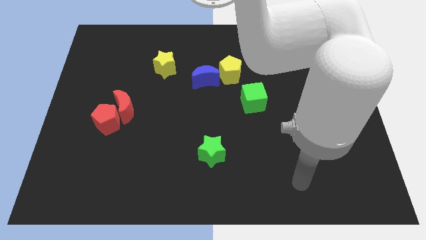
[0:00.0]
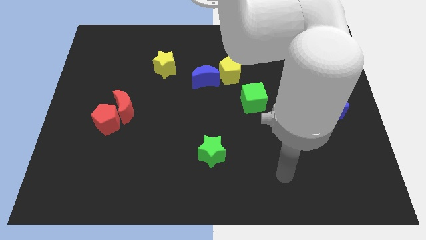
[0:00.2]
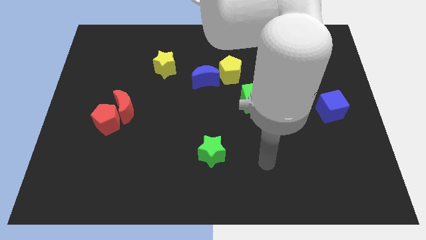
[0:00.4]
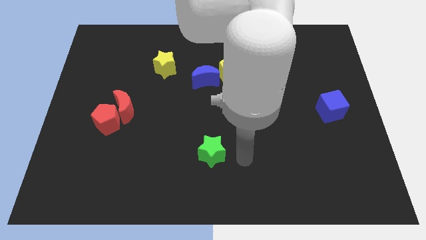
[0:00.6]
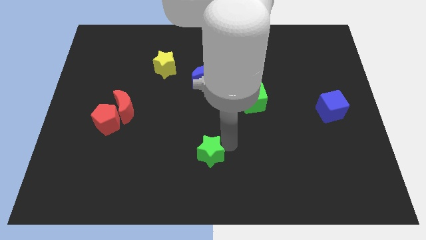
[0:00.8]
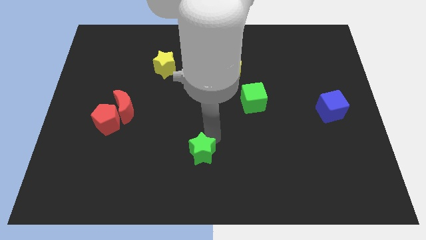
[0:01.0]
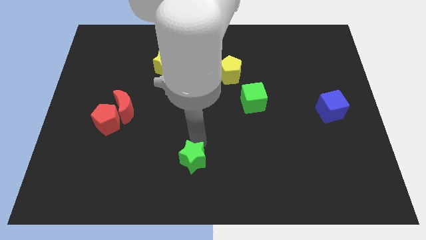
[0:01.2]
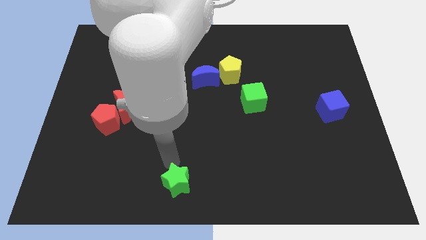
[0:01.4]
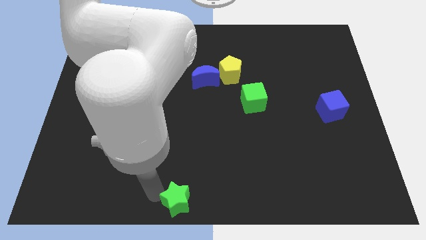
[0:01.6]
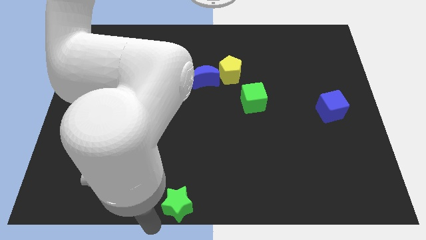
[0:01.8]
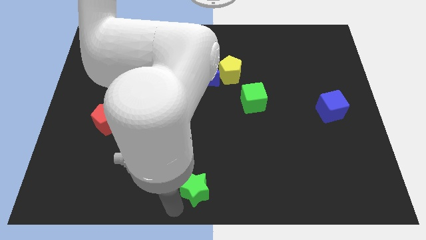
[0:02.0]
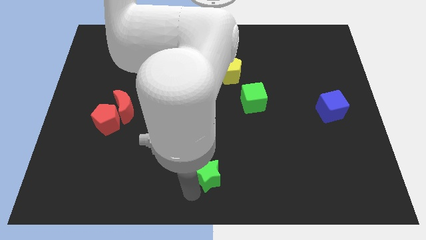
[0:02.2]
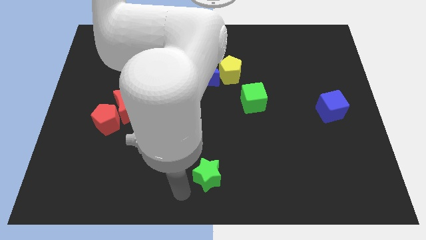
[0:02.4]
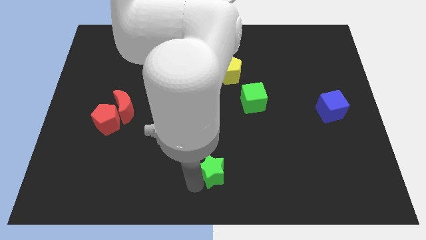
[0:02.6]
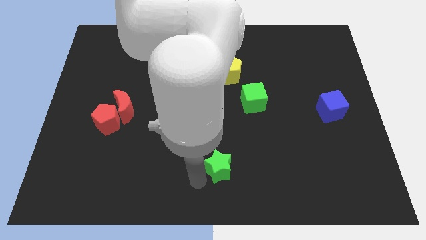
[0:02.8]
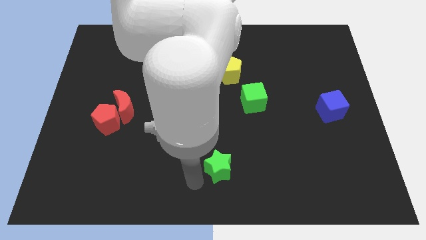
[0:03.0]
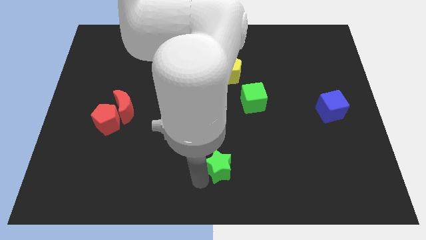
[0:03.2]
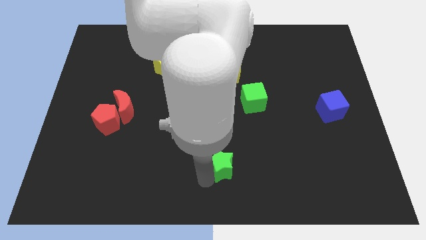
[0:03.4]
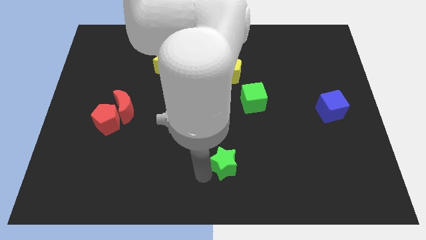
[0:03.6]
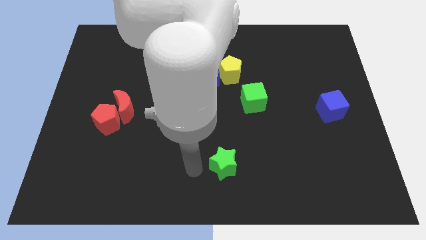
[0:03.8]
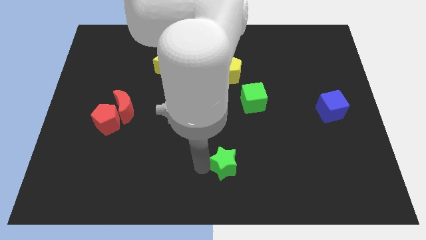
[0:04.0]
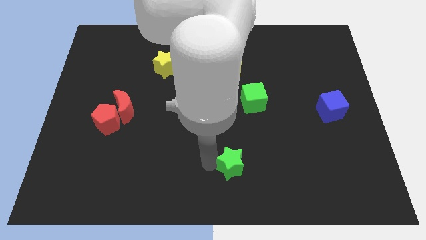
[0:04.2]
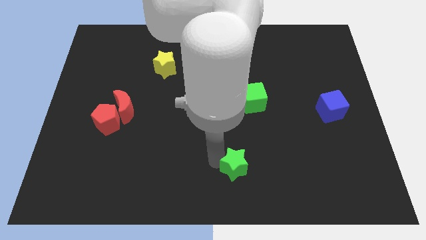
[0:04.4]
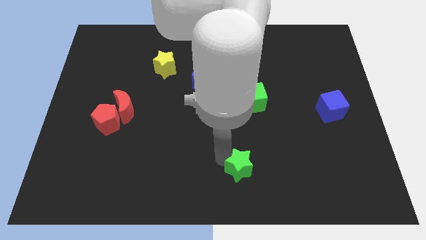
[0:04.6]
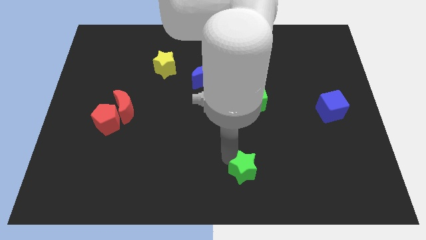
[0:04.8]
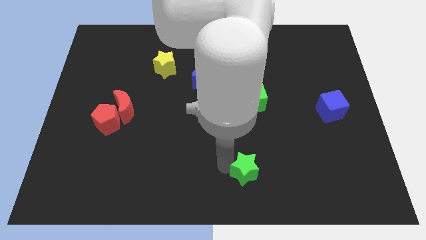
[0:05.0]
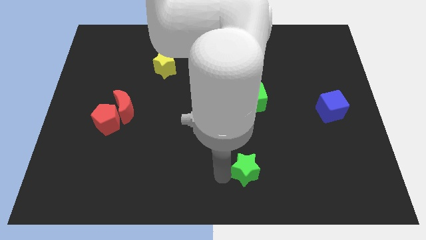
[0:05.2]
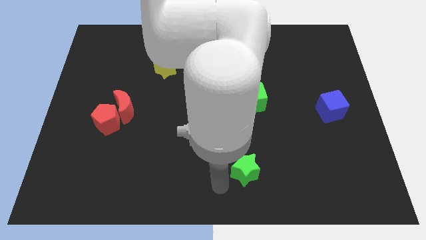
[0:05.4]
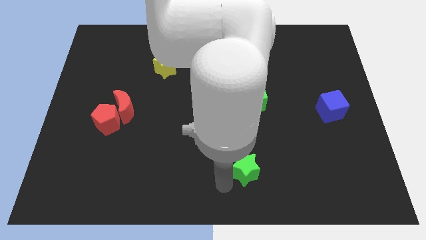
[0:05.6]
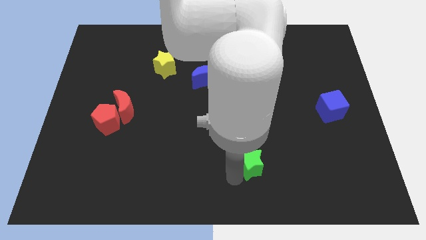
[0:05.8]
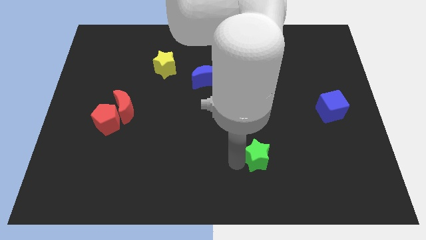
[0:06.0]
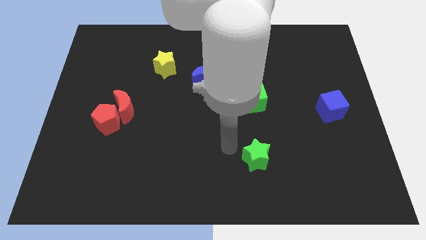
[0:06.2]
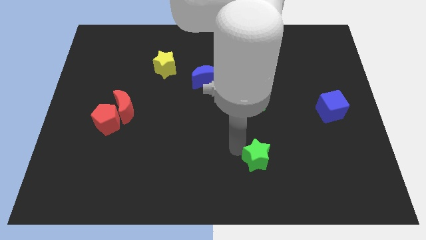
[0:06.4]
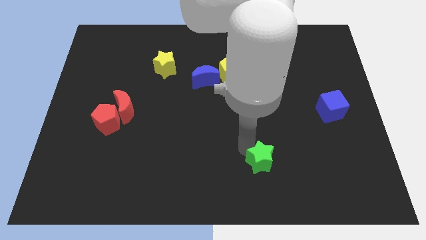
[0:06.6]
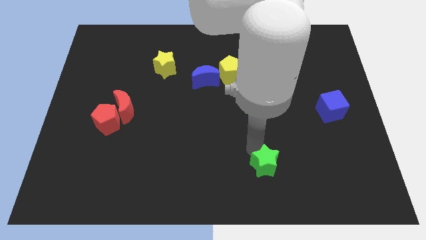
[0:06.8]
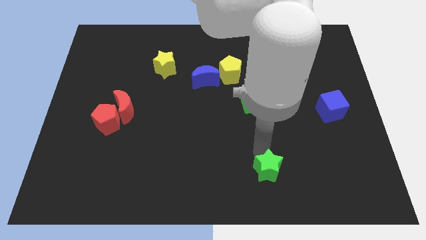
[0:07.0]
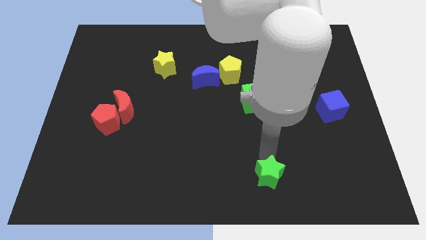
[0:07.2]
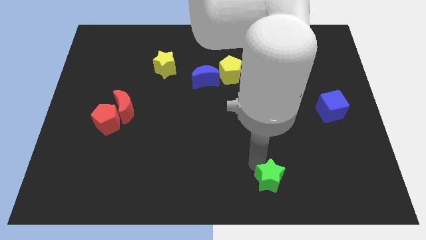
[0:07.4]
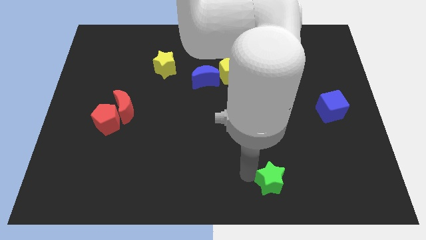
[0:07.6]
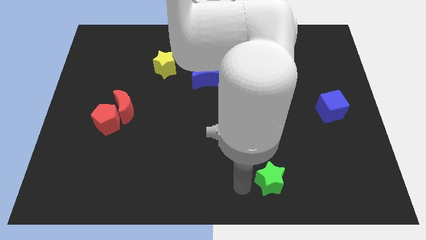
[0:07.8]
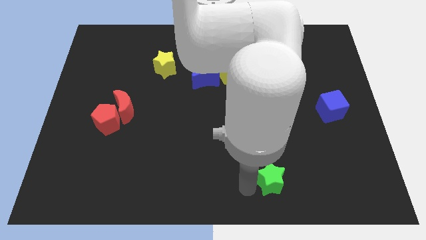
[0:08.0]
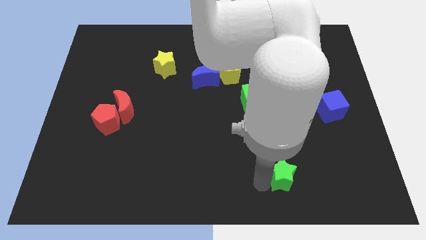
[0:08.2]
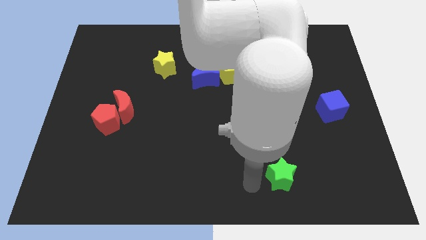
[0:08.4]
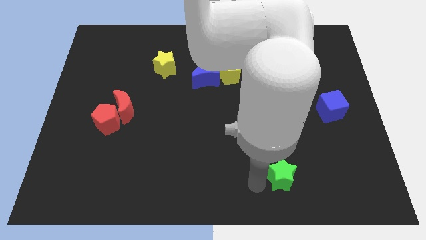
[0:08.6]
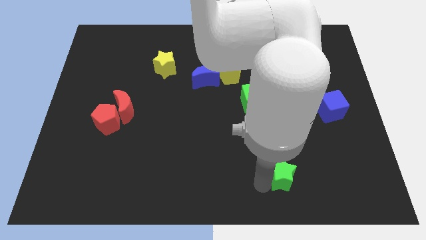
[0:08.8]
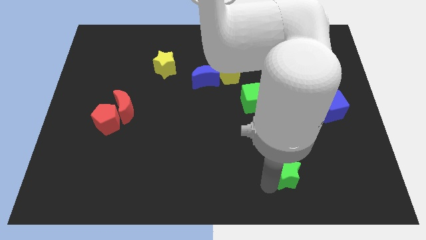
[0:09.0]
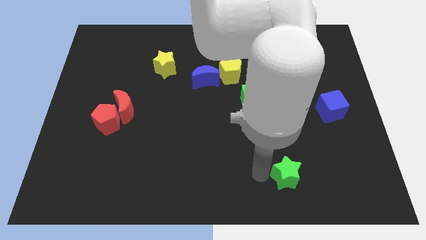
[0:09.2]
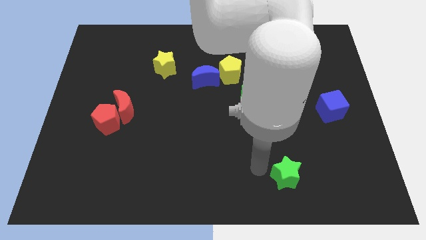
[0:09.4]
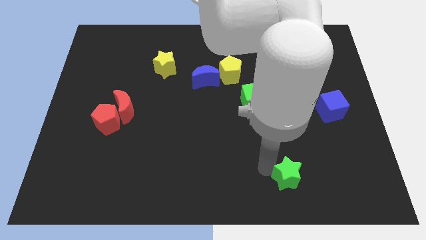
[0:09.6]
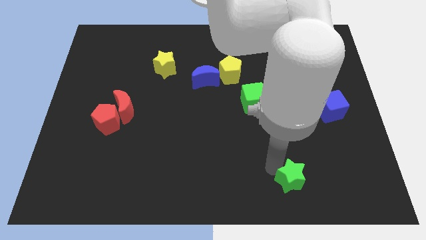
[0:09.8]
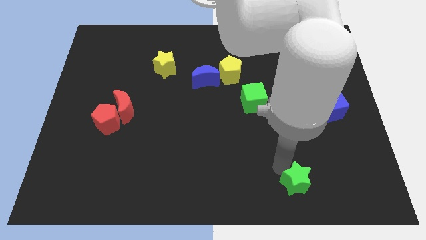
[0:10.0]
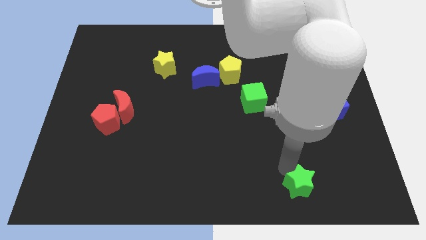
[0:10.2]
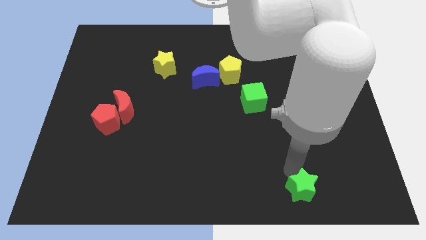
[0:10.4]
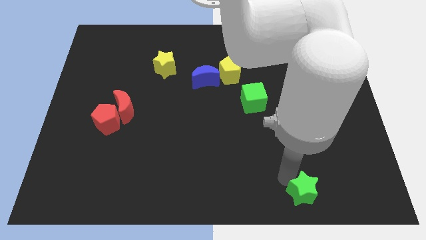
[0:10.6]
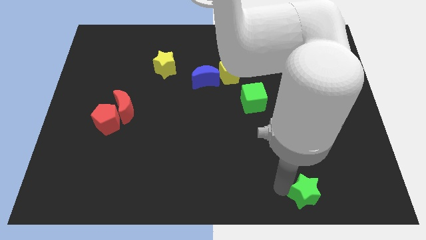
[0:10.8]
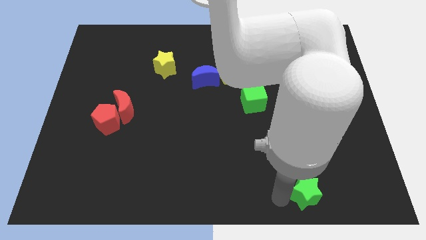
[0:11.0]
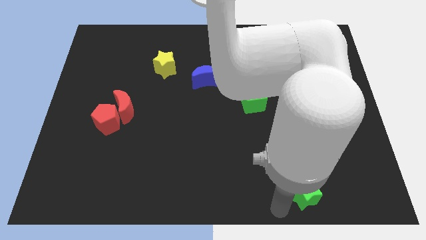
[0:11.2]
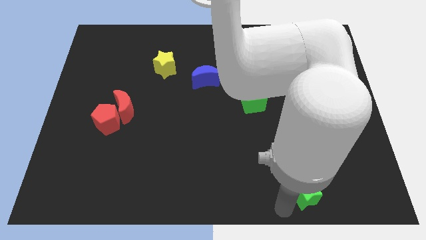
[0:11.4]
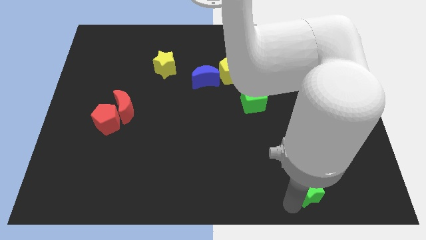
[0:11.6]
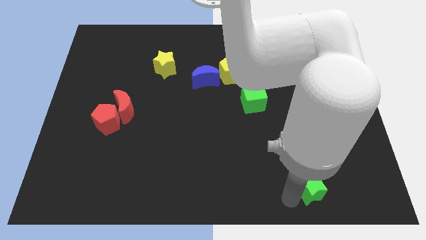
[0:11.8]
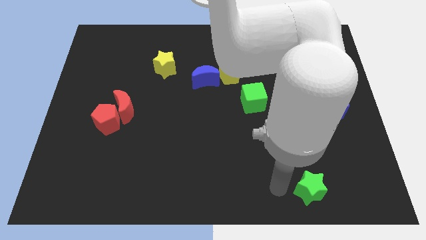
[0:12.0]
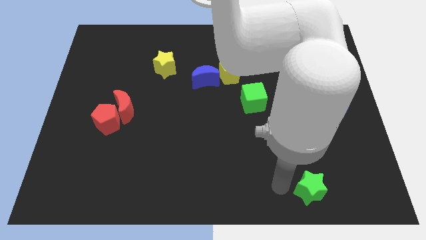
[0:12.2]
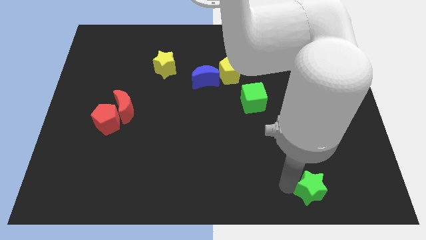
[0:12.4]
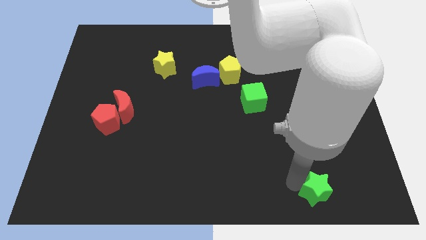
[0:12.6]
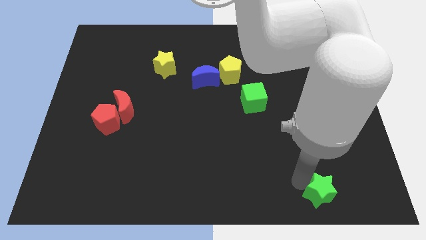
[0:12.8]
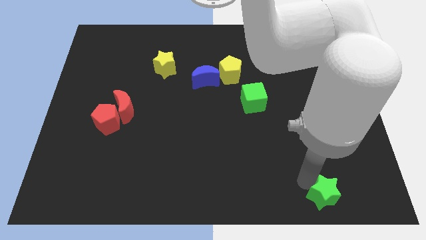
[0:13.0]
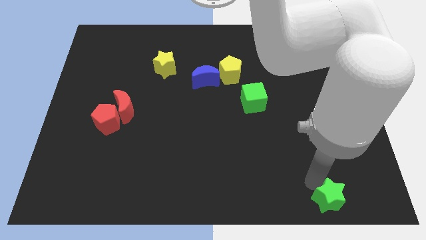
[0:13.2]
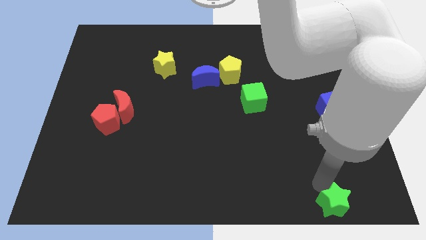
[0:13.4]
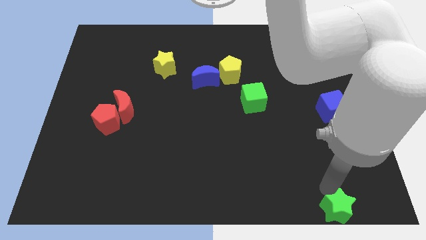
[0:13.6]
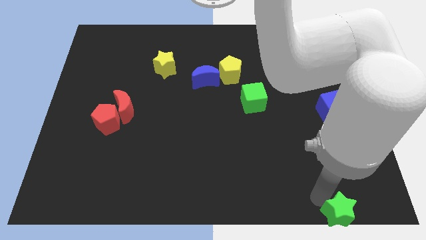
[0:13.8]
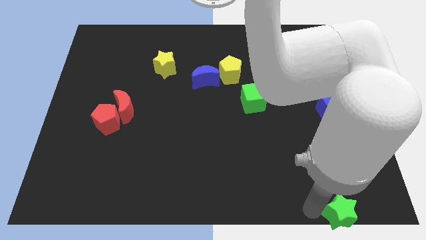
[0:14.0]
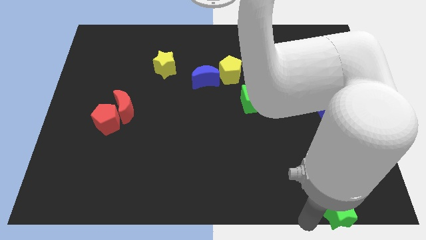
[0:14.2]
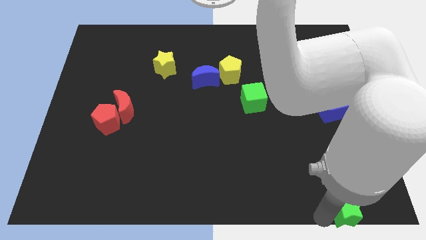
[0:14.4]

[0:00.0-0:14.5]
move the green star to the bottom right corner
